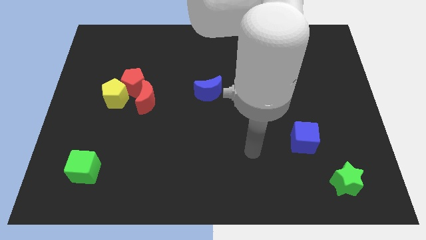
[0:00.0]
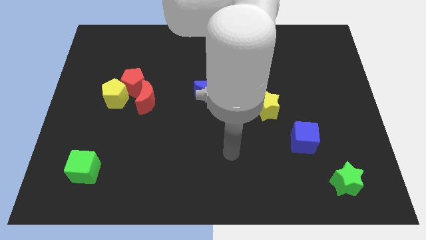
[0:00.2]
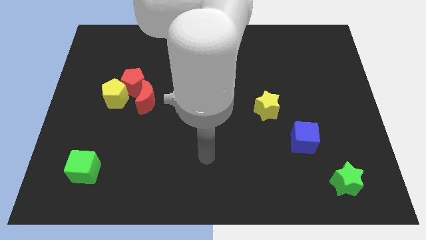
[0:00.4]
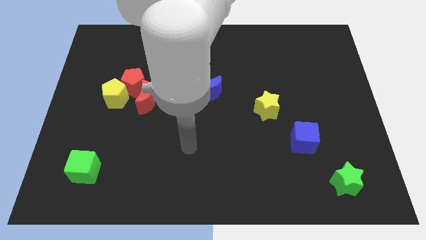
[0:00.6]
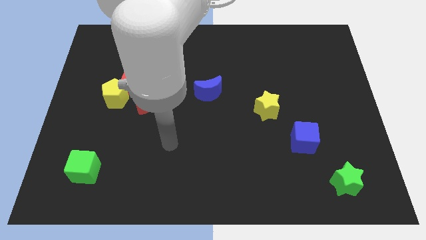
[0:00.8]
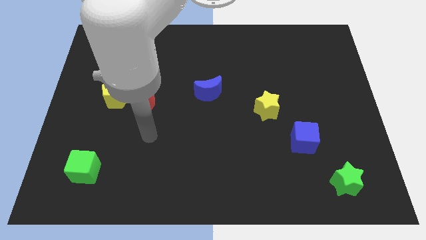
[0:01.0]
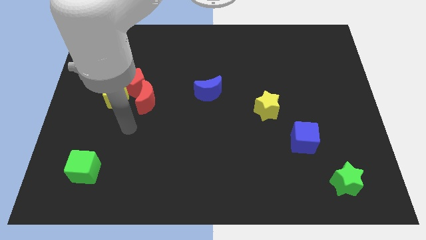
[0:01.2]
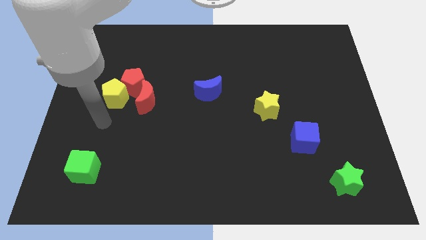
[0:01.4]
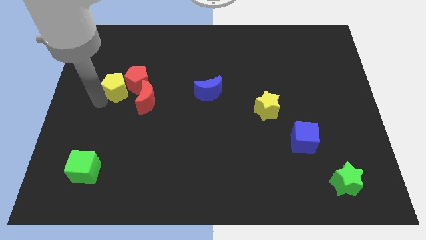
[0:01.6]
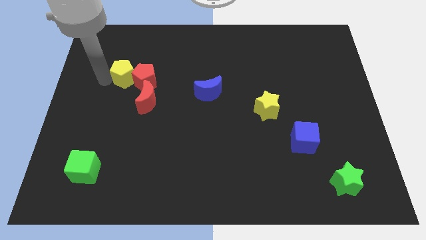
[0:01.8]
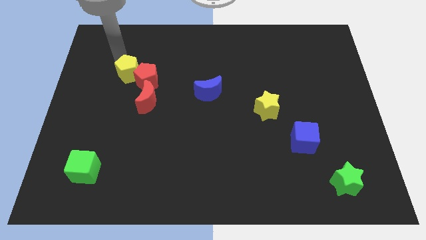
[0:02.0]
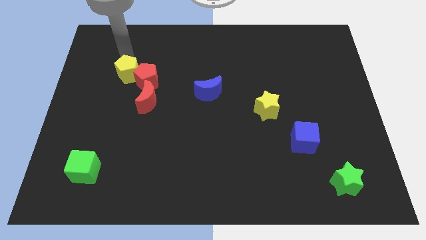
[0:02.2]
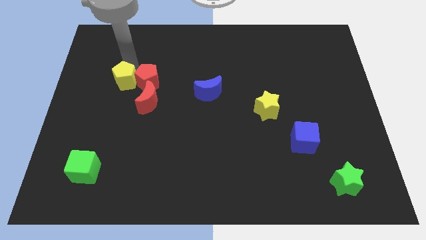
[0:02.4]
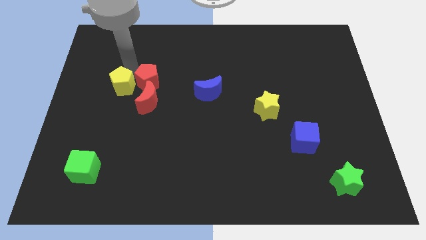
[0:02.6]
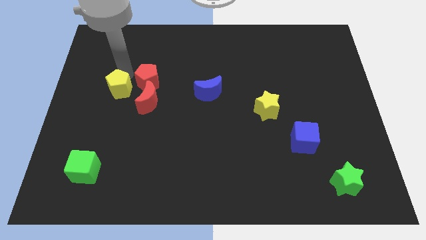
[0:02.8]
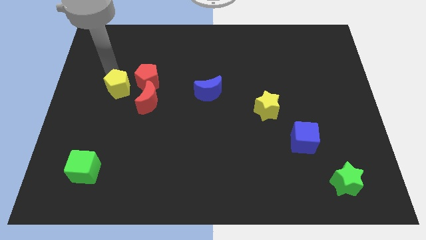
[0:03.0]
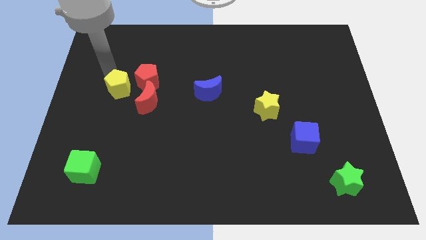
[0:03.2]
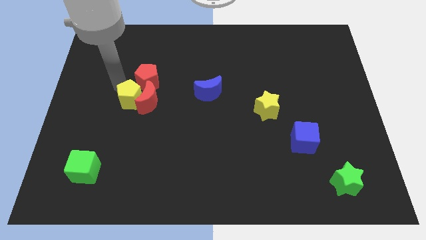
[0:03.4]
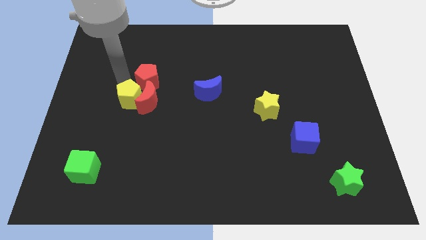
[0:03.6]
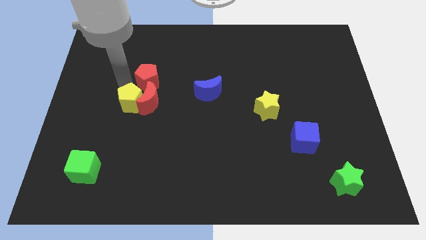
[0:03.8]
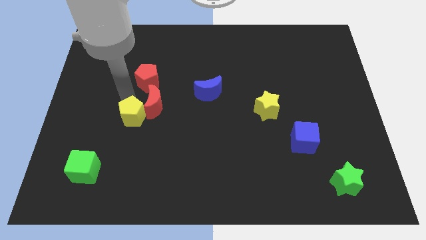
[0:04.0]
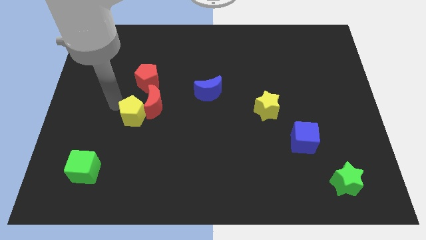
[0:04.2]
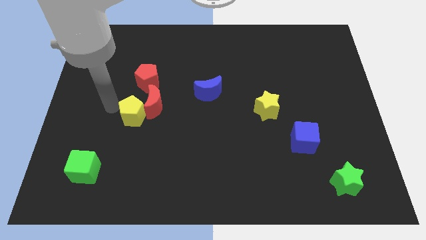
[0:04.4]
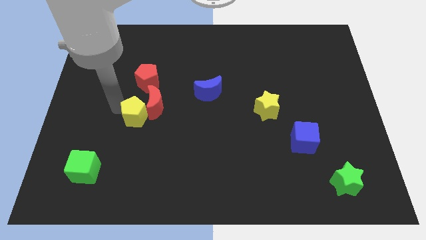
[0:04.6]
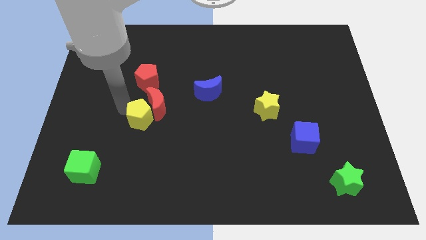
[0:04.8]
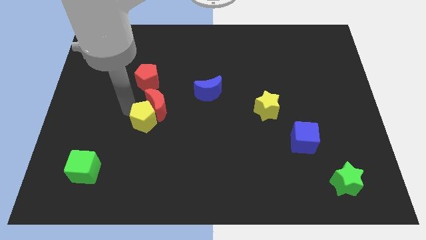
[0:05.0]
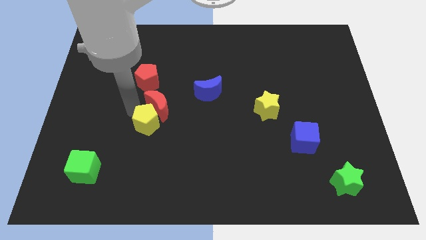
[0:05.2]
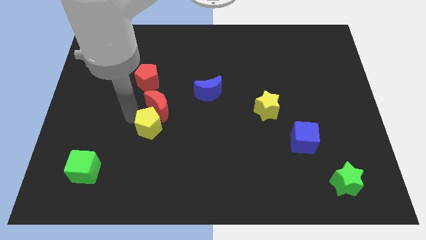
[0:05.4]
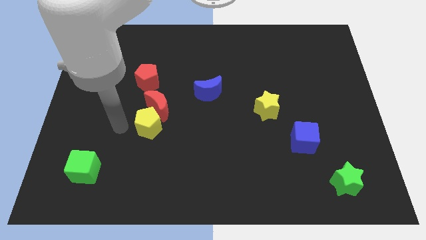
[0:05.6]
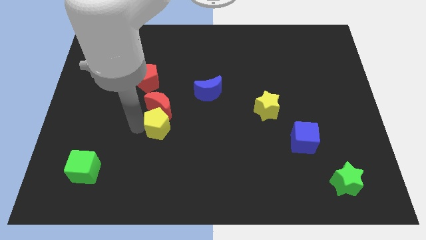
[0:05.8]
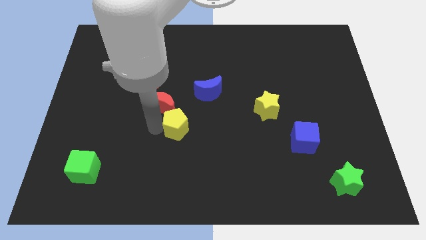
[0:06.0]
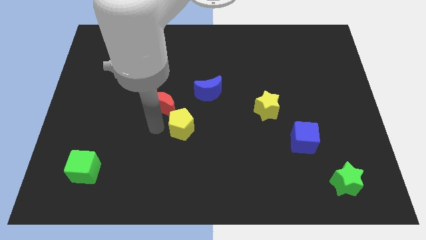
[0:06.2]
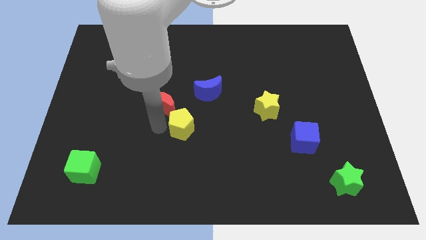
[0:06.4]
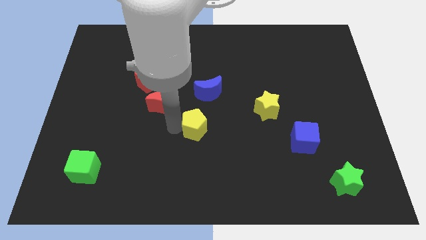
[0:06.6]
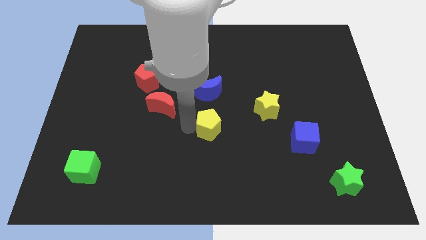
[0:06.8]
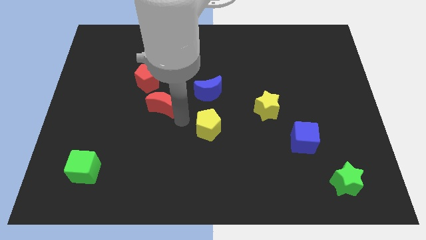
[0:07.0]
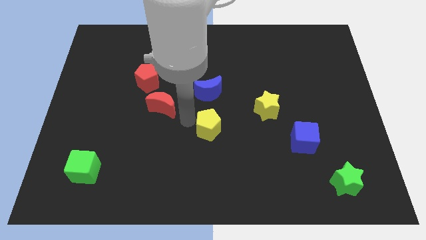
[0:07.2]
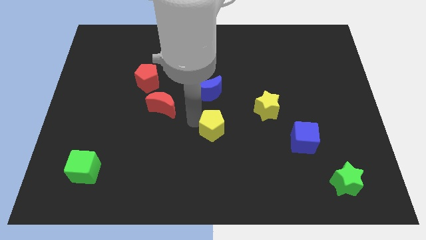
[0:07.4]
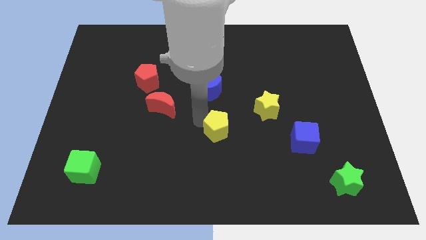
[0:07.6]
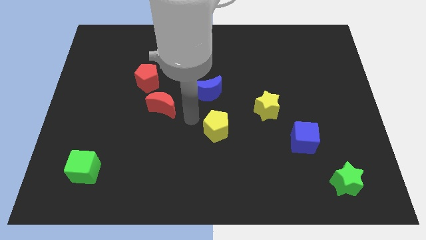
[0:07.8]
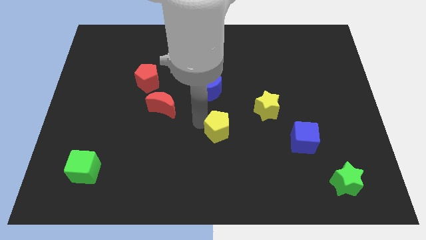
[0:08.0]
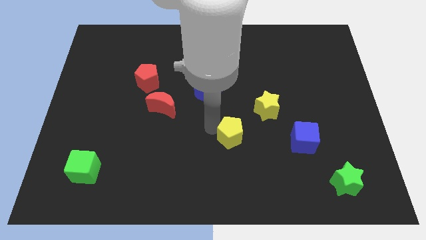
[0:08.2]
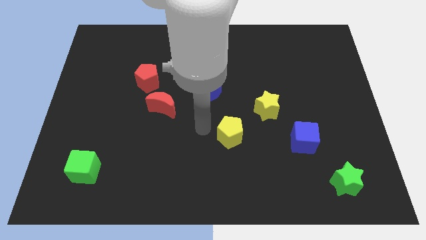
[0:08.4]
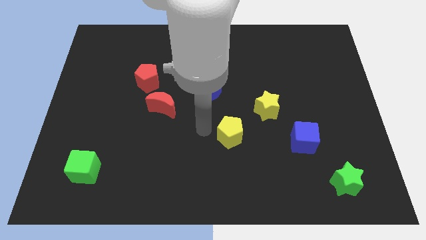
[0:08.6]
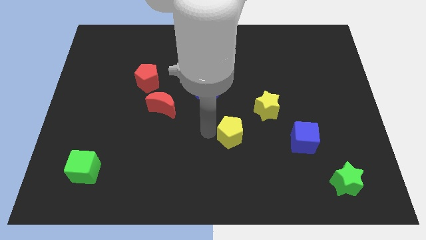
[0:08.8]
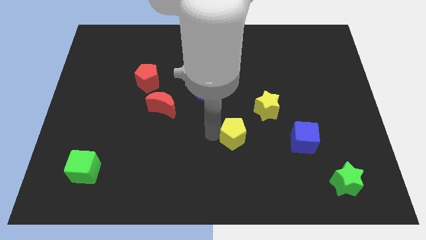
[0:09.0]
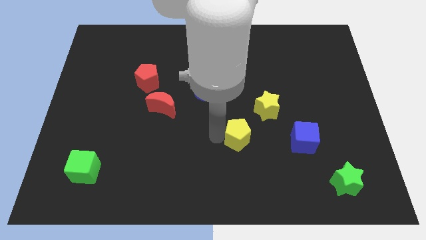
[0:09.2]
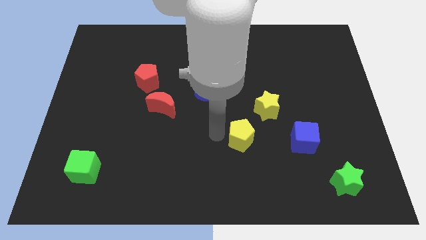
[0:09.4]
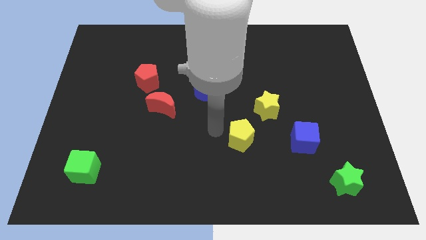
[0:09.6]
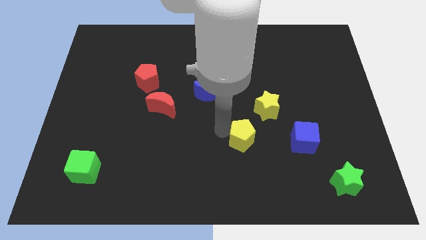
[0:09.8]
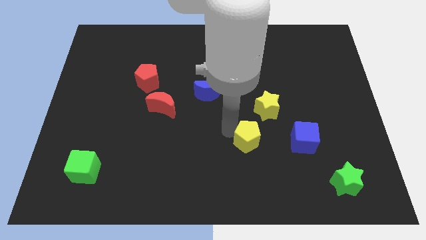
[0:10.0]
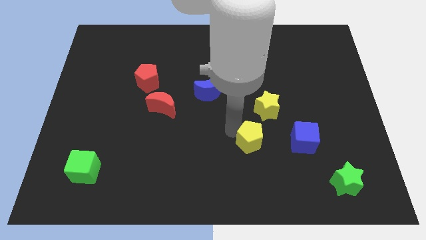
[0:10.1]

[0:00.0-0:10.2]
slide the yellow pentagon to the bottom of the yellow star

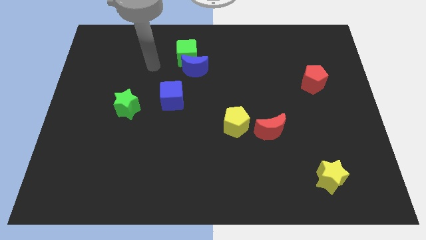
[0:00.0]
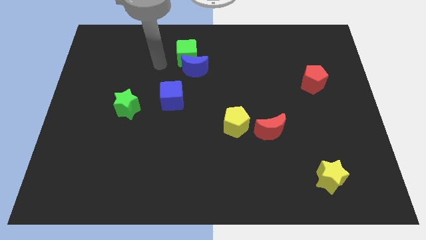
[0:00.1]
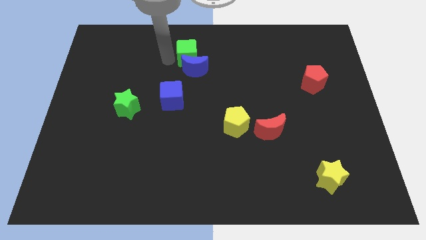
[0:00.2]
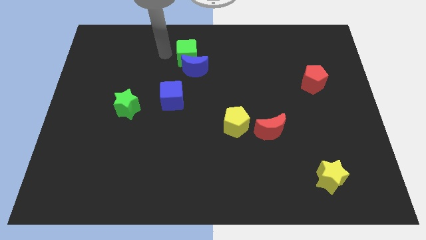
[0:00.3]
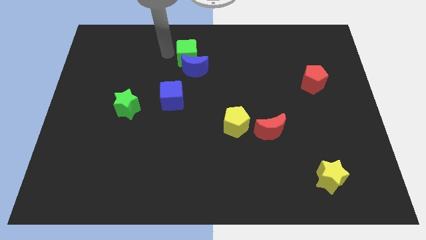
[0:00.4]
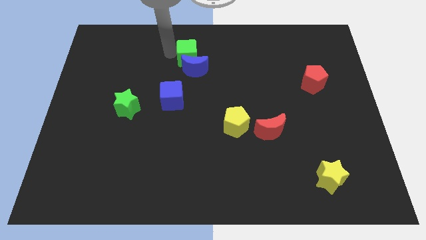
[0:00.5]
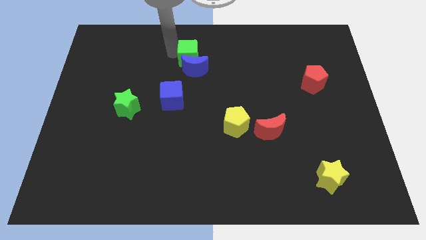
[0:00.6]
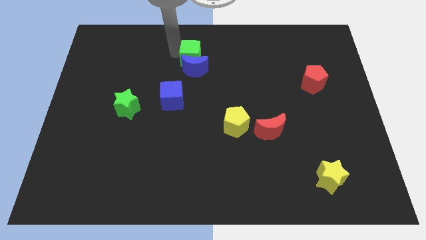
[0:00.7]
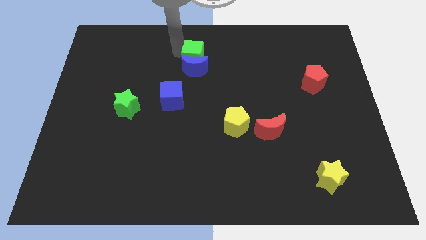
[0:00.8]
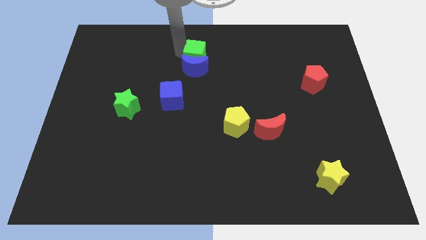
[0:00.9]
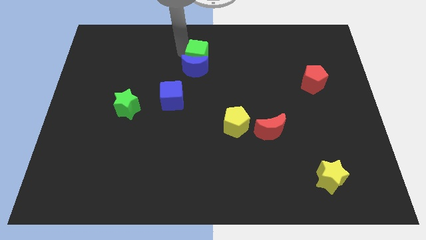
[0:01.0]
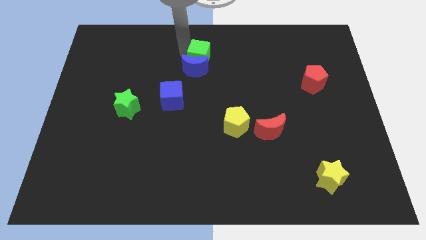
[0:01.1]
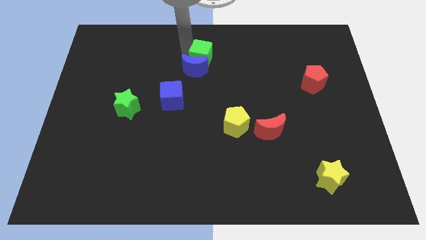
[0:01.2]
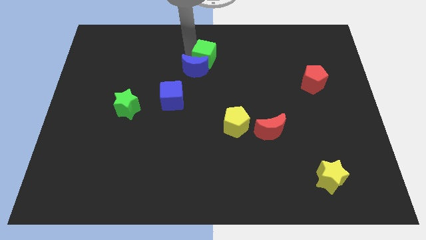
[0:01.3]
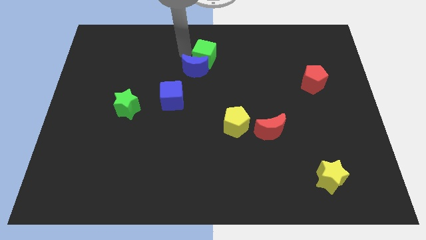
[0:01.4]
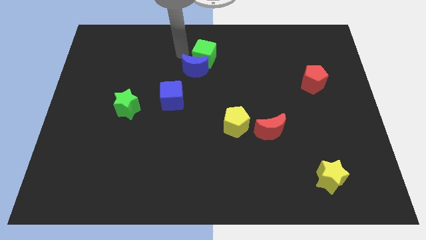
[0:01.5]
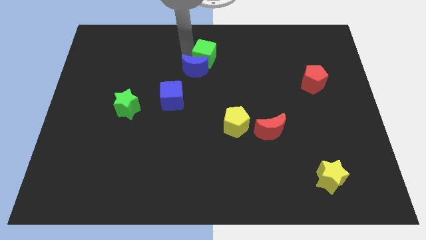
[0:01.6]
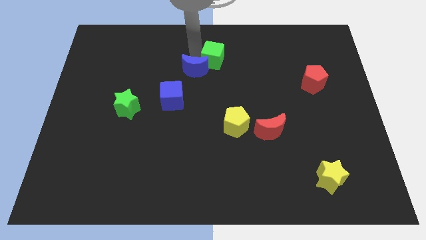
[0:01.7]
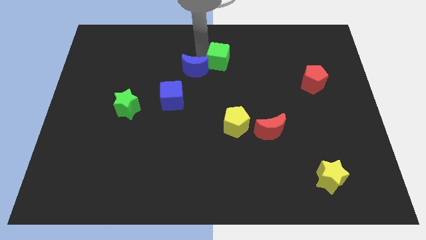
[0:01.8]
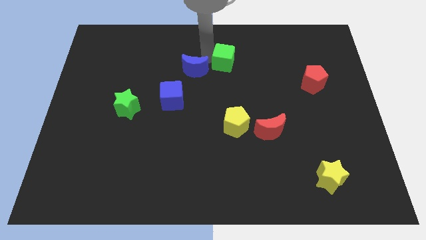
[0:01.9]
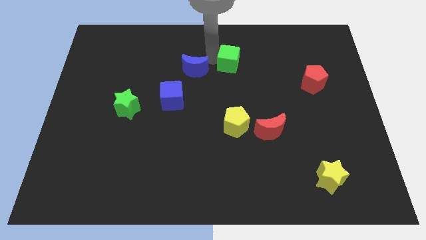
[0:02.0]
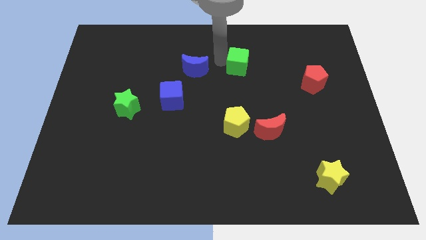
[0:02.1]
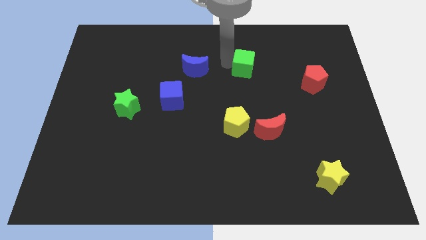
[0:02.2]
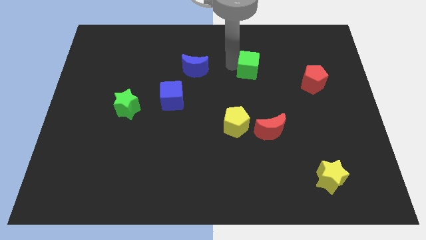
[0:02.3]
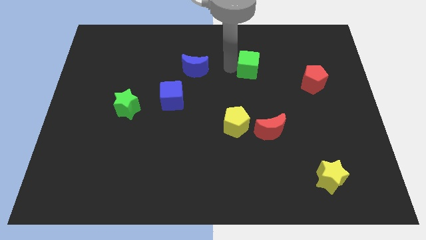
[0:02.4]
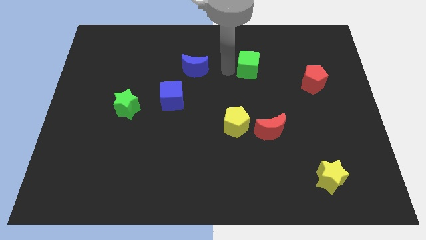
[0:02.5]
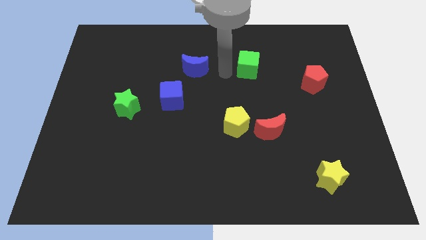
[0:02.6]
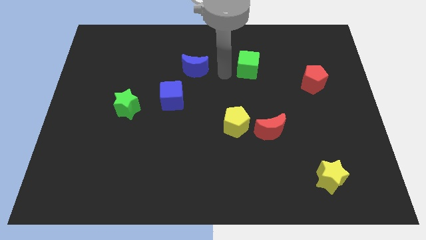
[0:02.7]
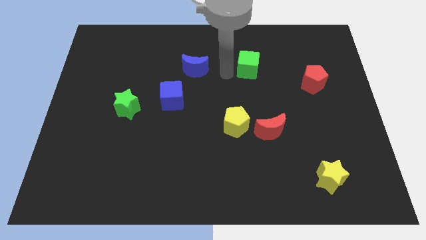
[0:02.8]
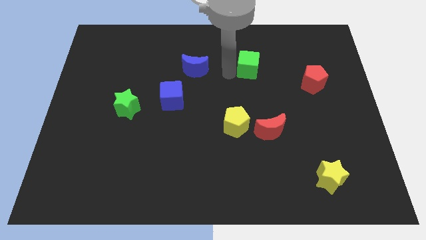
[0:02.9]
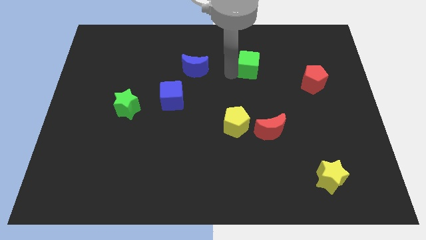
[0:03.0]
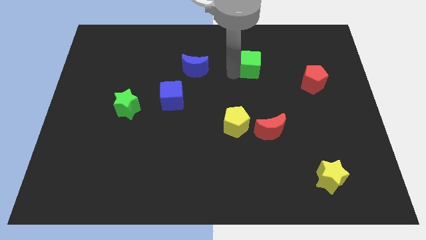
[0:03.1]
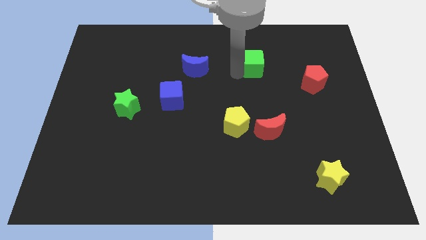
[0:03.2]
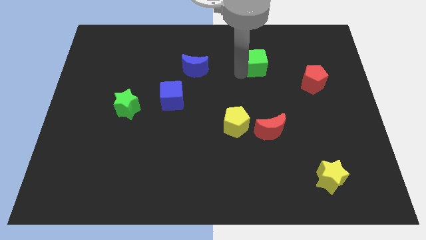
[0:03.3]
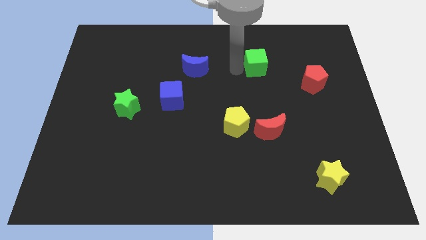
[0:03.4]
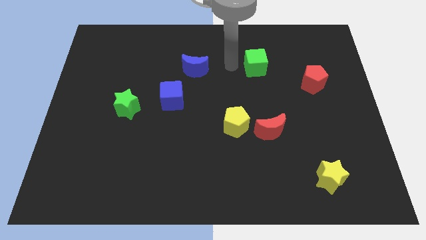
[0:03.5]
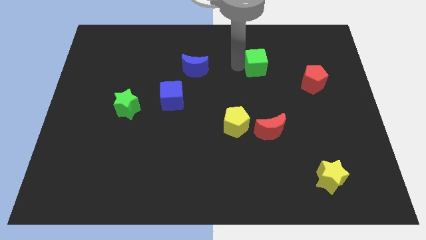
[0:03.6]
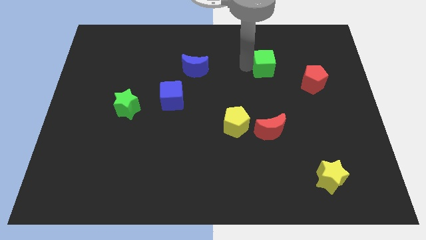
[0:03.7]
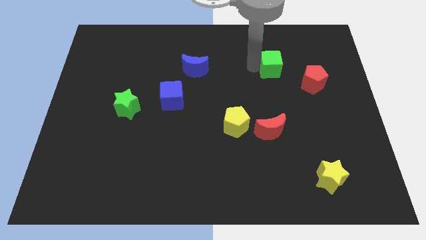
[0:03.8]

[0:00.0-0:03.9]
slide the green cube to the top left side of the red pentagon
